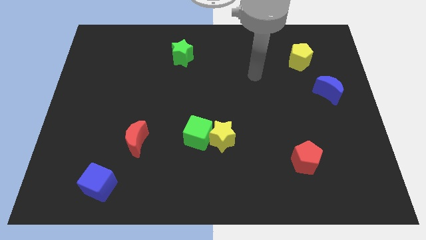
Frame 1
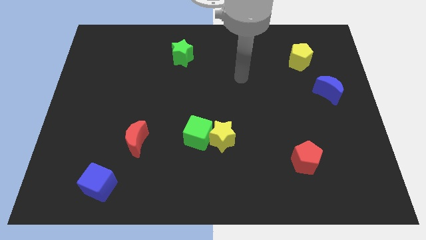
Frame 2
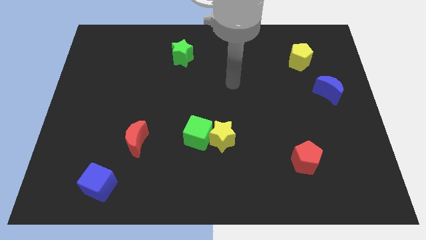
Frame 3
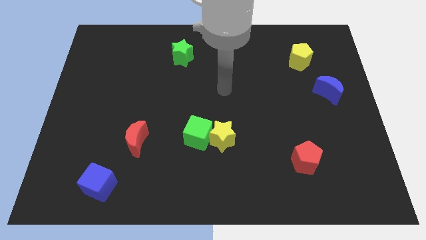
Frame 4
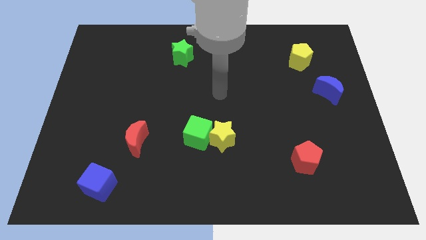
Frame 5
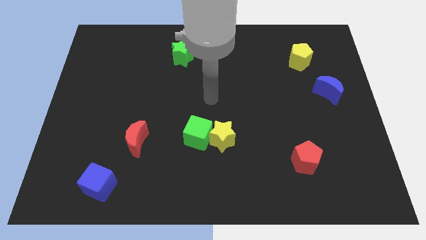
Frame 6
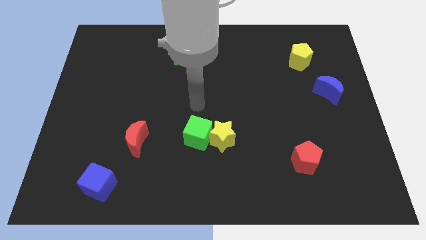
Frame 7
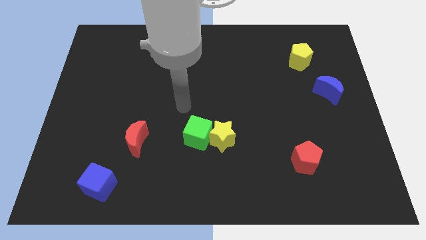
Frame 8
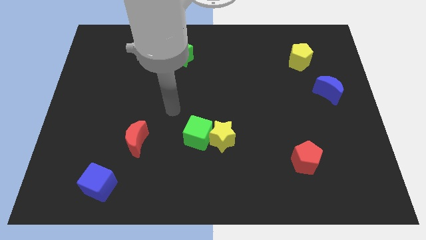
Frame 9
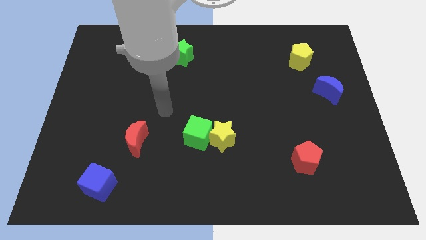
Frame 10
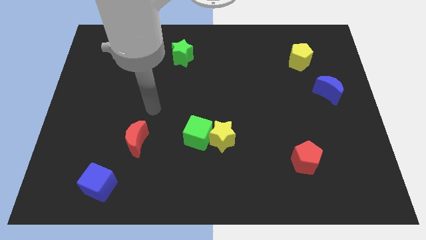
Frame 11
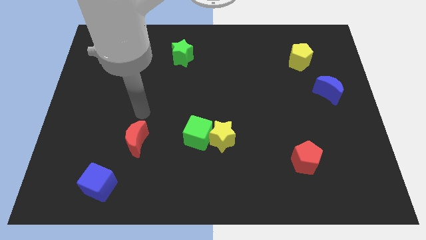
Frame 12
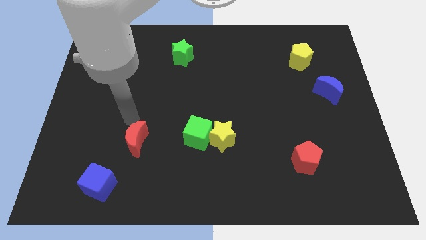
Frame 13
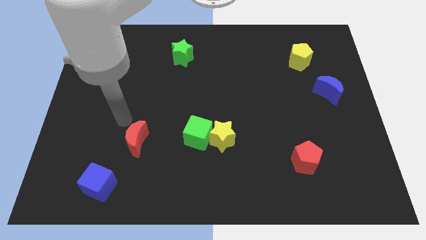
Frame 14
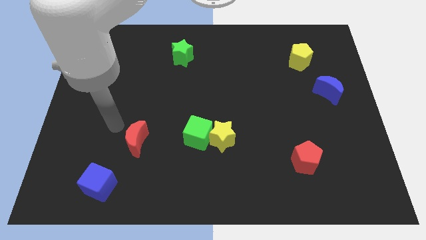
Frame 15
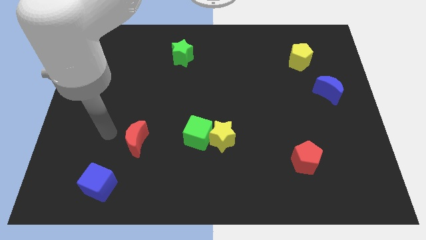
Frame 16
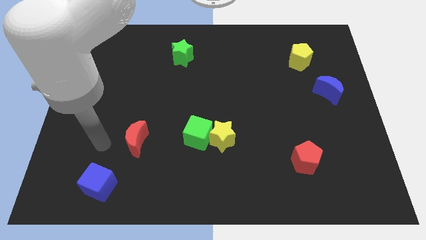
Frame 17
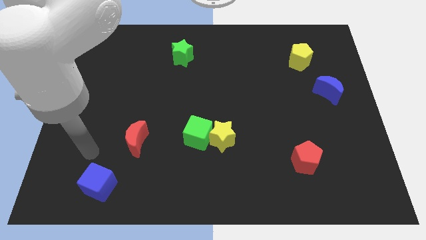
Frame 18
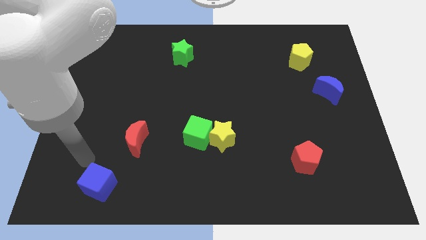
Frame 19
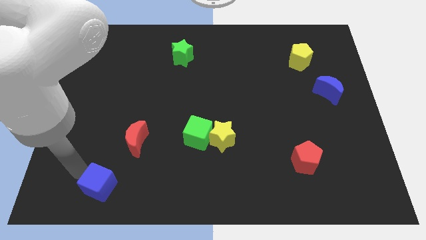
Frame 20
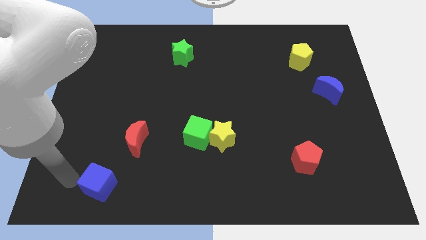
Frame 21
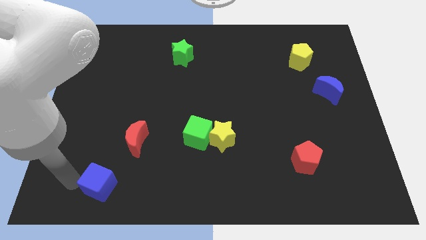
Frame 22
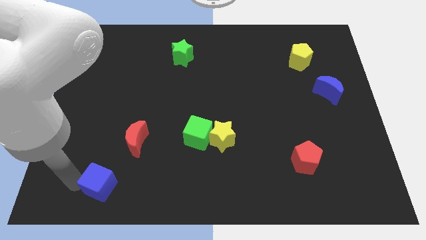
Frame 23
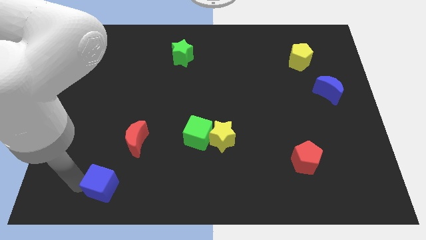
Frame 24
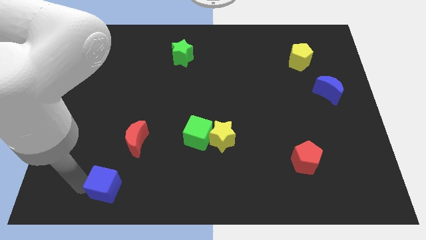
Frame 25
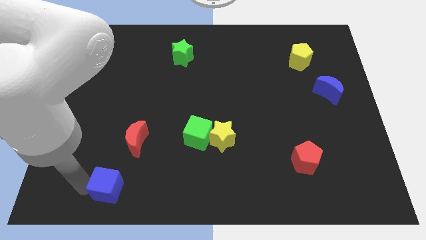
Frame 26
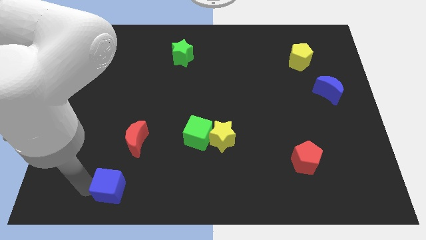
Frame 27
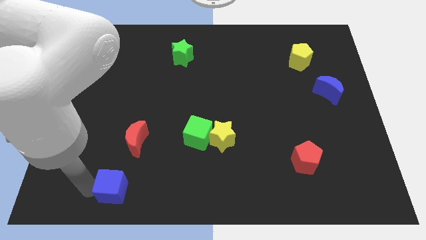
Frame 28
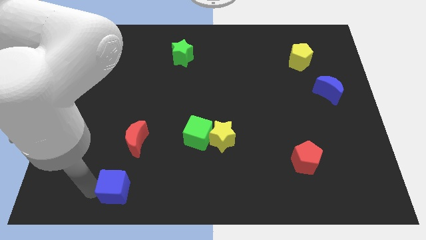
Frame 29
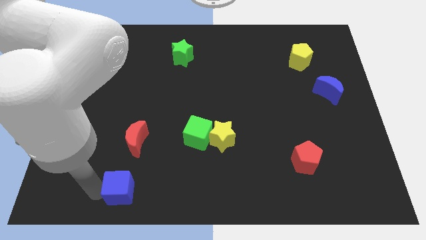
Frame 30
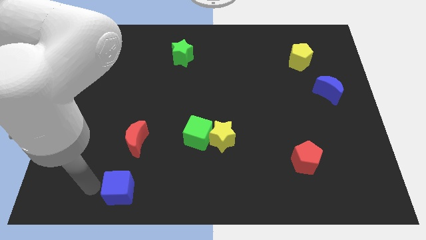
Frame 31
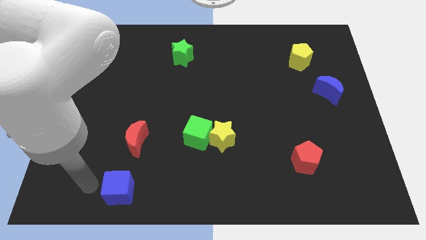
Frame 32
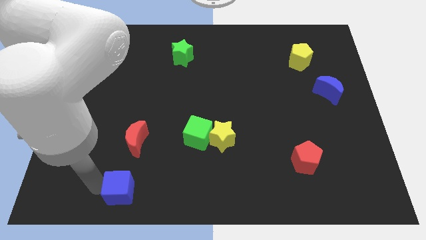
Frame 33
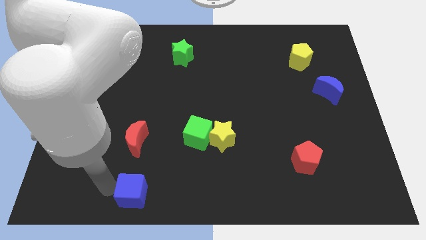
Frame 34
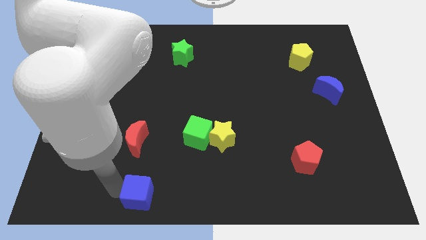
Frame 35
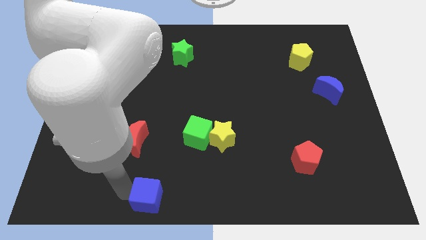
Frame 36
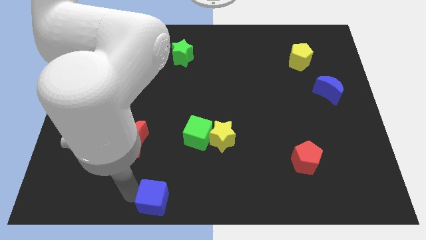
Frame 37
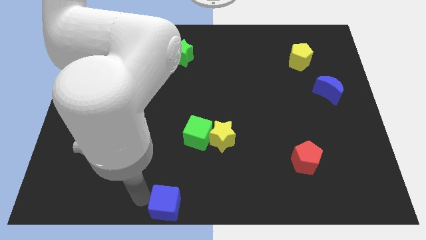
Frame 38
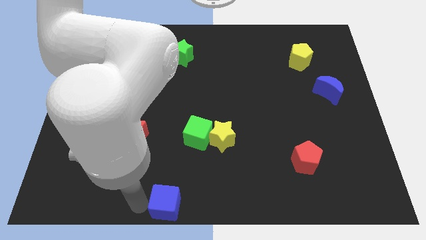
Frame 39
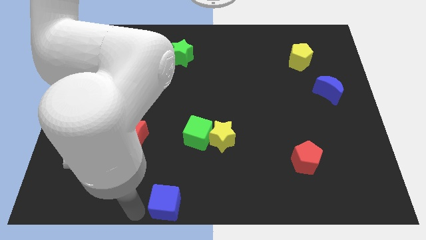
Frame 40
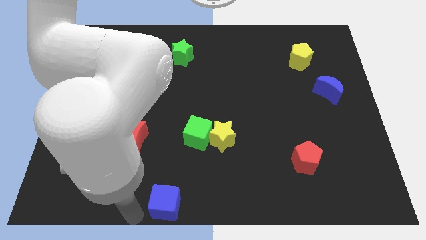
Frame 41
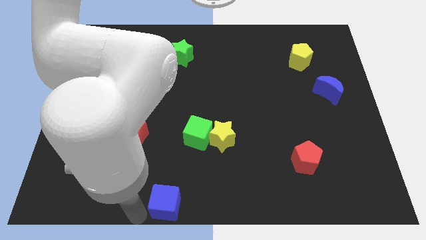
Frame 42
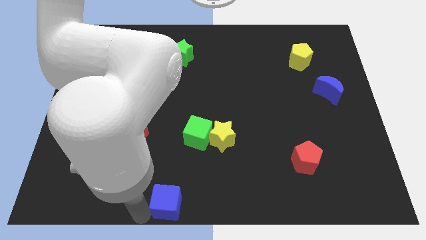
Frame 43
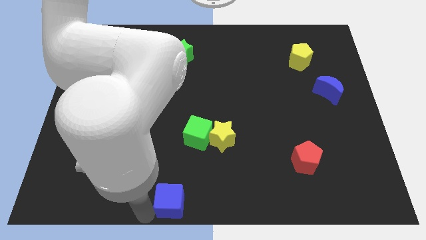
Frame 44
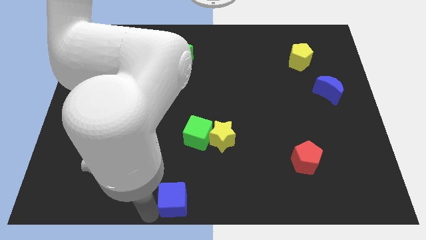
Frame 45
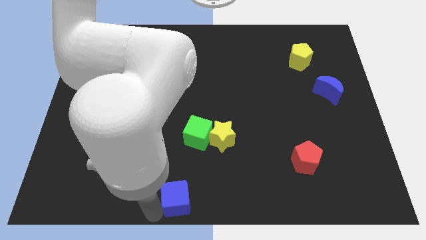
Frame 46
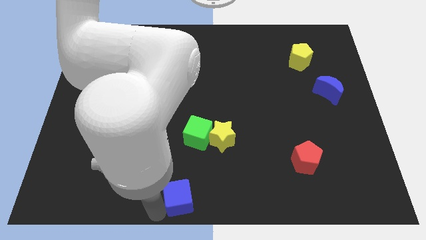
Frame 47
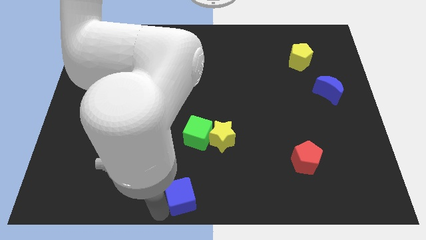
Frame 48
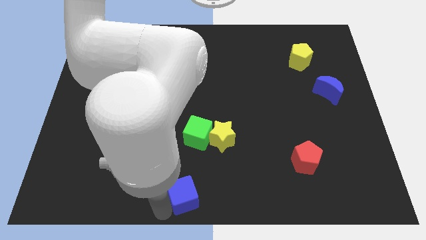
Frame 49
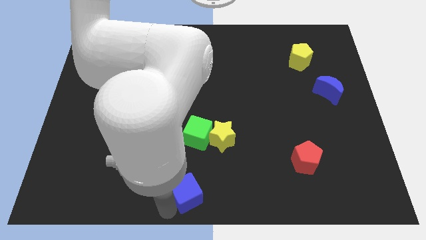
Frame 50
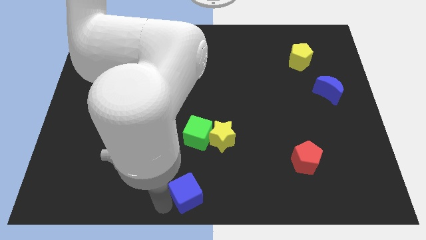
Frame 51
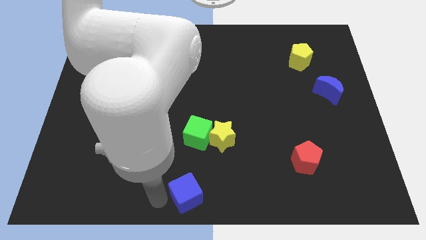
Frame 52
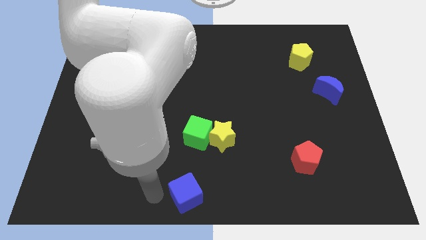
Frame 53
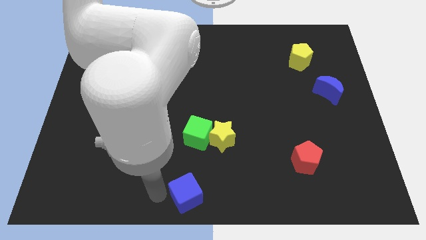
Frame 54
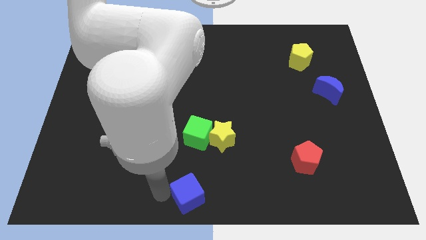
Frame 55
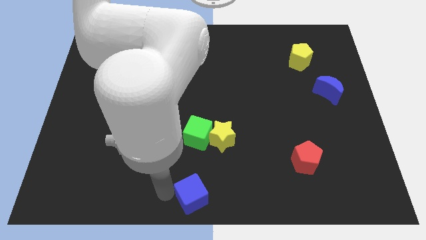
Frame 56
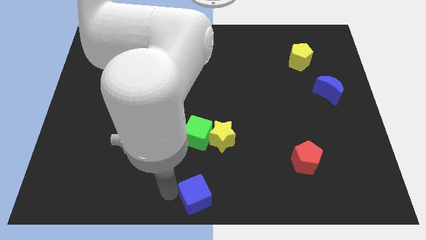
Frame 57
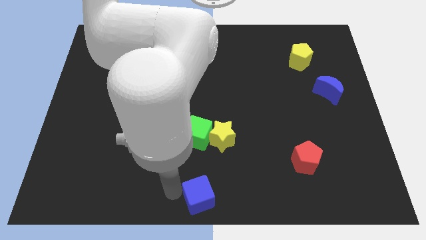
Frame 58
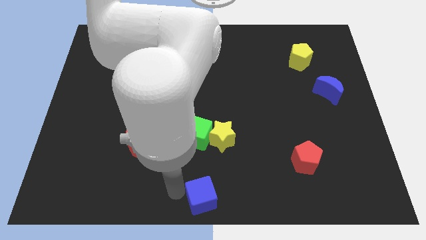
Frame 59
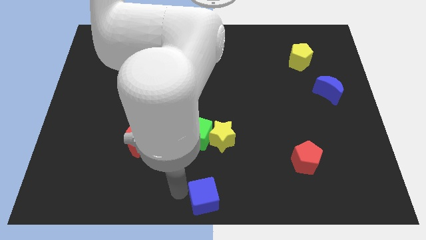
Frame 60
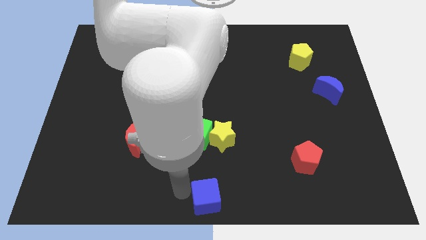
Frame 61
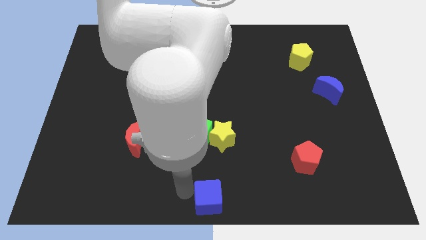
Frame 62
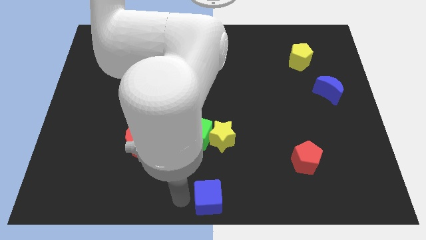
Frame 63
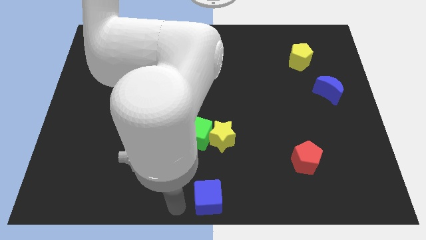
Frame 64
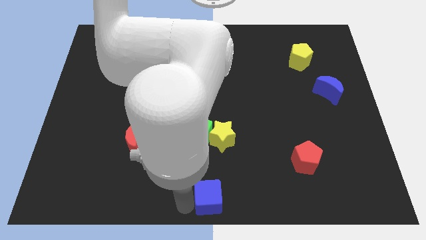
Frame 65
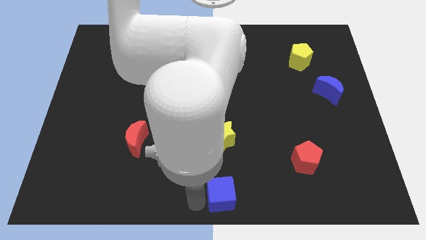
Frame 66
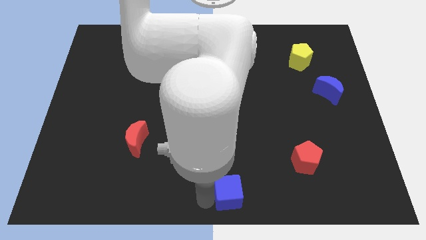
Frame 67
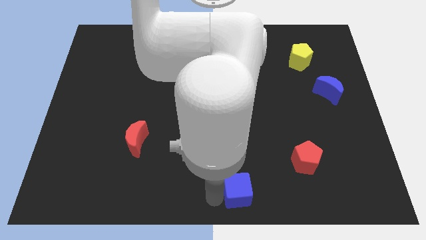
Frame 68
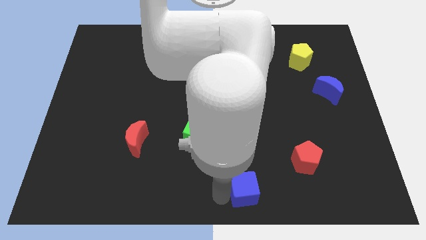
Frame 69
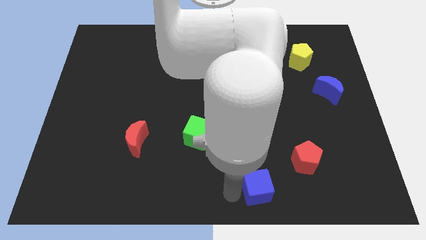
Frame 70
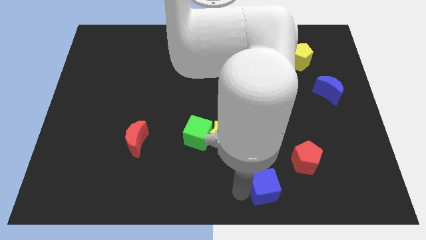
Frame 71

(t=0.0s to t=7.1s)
slide the blue cube to the bottom left side of the red pentagon
